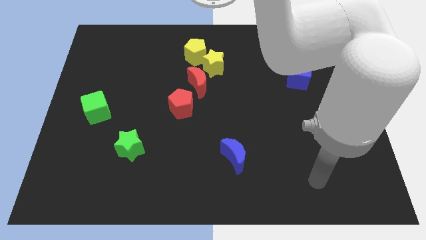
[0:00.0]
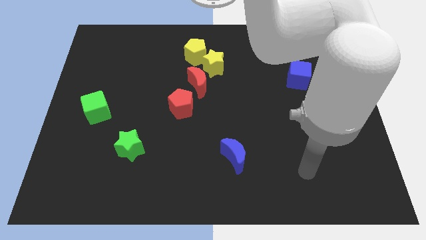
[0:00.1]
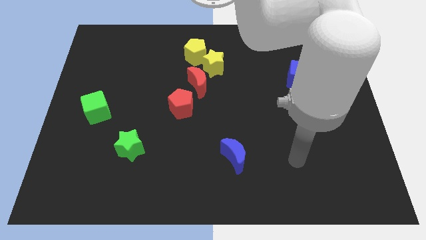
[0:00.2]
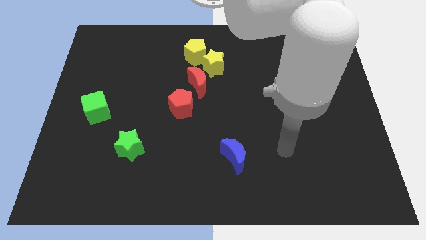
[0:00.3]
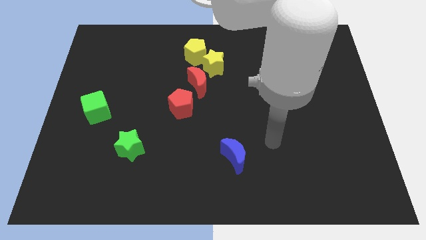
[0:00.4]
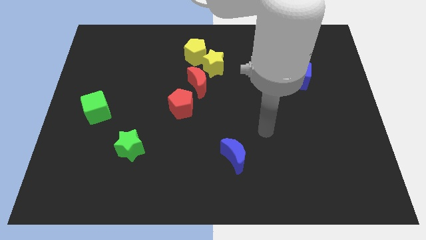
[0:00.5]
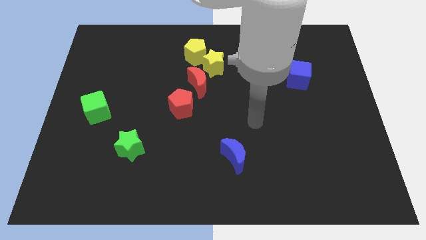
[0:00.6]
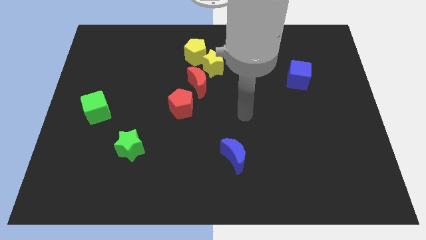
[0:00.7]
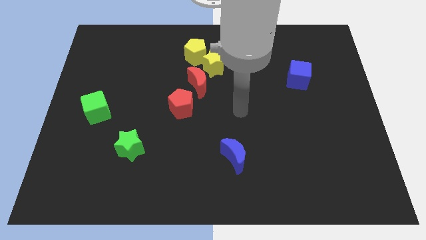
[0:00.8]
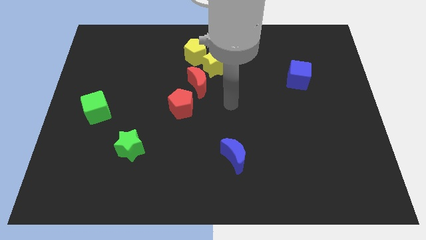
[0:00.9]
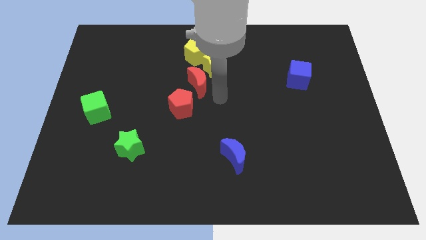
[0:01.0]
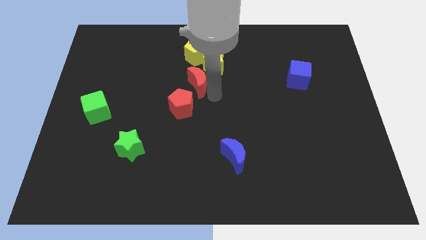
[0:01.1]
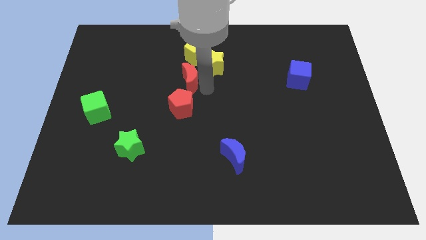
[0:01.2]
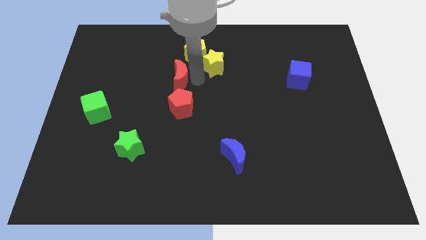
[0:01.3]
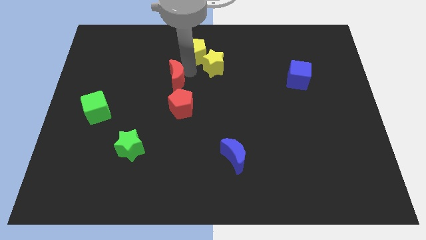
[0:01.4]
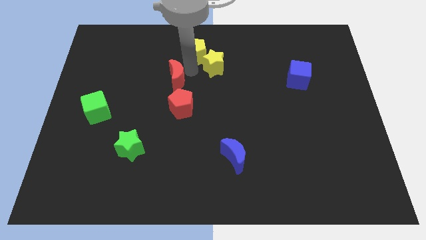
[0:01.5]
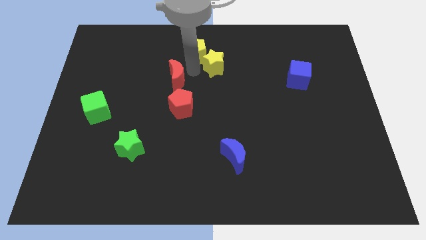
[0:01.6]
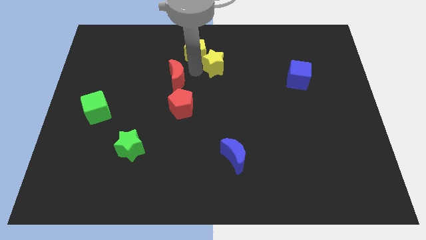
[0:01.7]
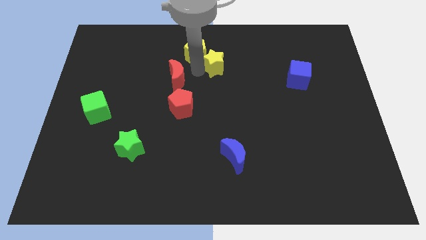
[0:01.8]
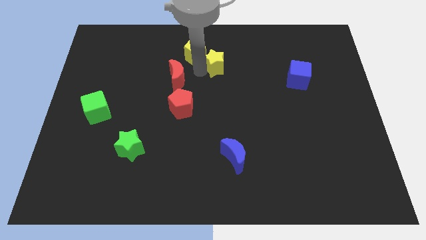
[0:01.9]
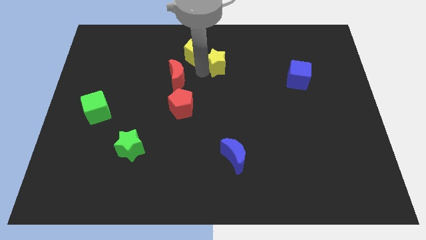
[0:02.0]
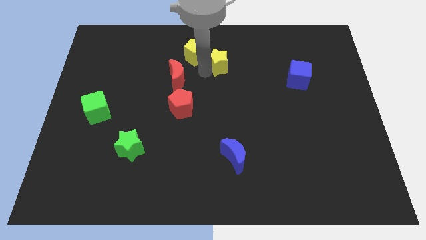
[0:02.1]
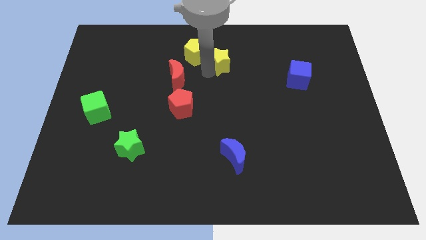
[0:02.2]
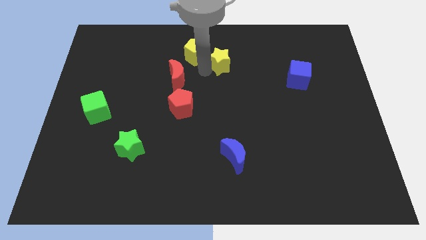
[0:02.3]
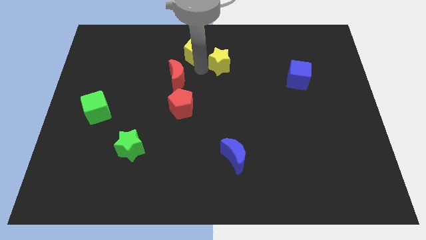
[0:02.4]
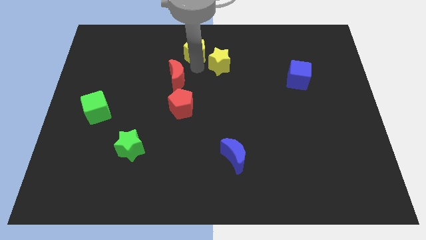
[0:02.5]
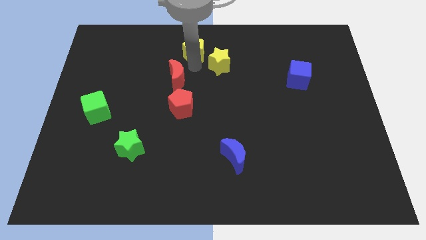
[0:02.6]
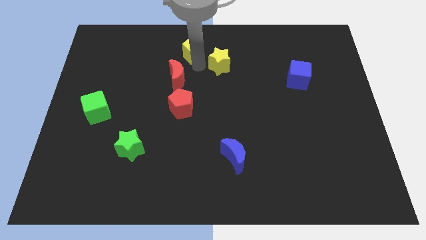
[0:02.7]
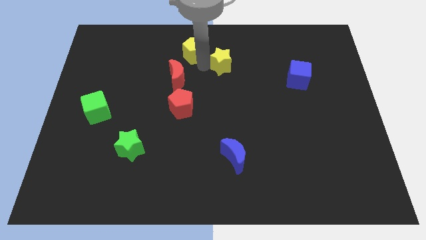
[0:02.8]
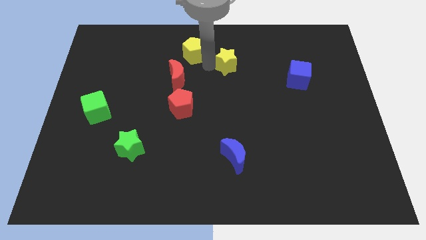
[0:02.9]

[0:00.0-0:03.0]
separate the yellow star from the yellow pentagon and red moon

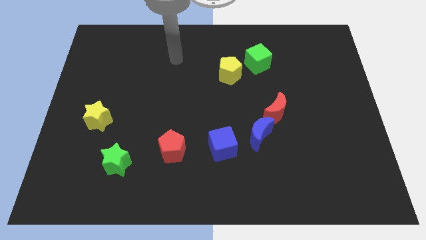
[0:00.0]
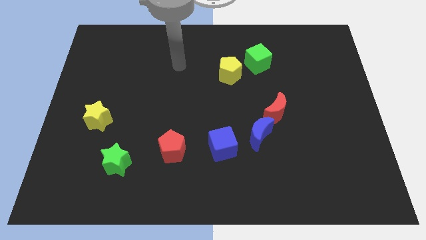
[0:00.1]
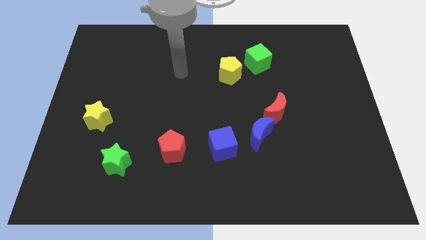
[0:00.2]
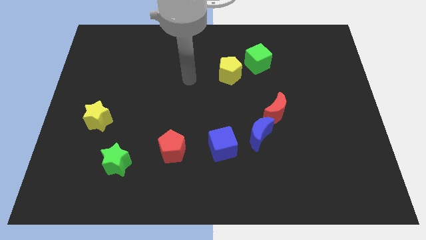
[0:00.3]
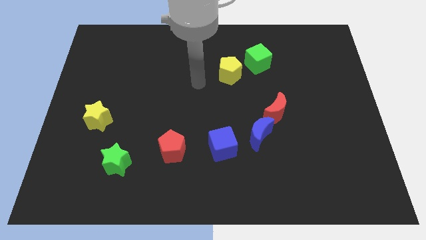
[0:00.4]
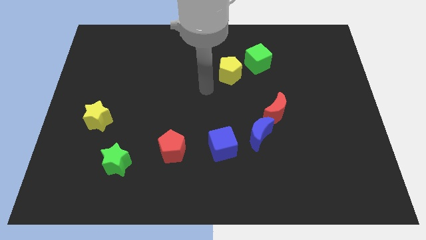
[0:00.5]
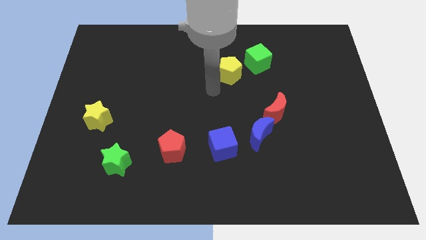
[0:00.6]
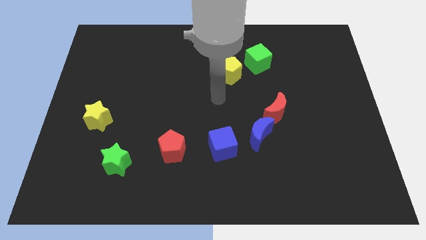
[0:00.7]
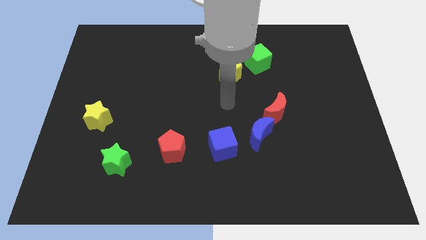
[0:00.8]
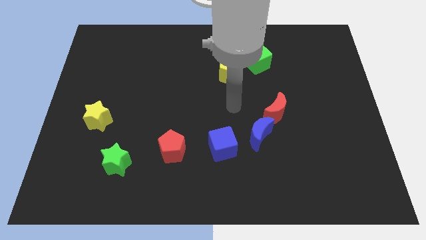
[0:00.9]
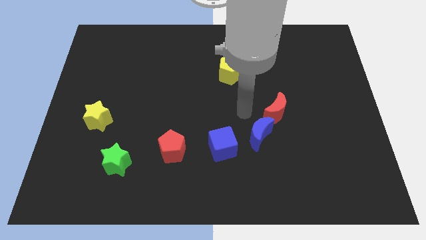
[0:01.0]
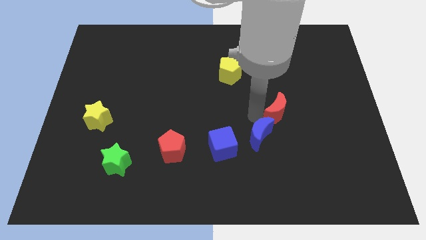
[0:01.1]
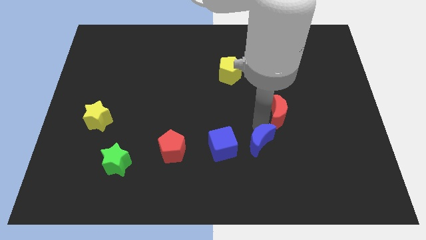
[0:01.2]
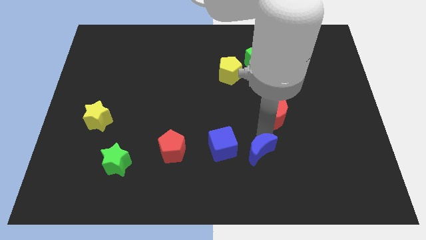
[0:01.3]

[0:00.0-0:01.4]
pull the red moon apart from the blue moon

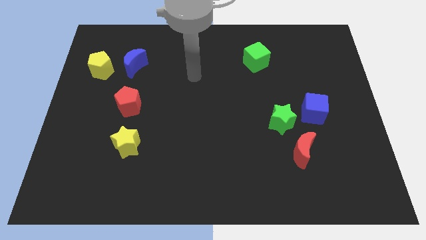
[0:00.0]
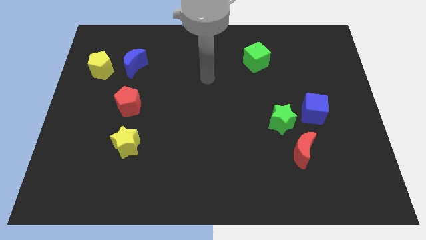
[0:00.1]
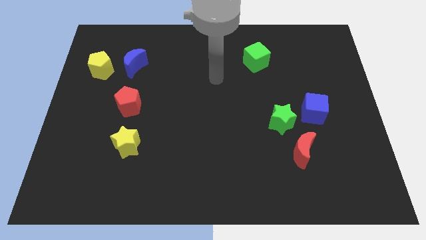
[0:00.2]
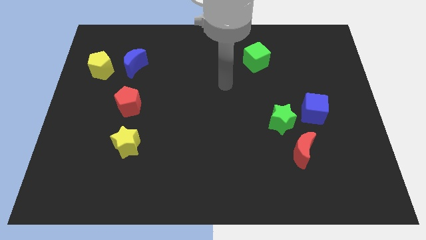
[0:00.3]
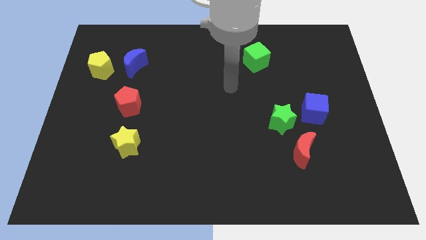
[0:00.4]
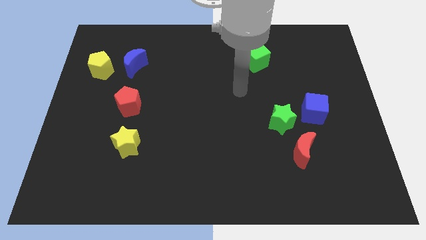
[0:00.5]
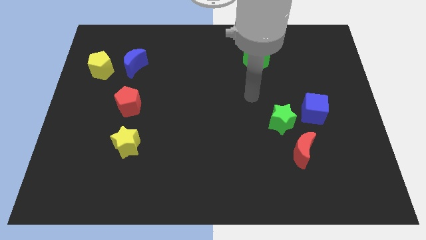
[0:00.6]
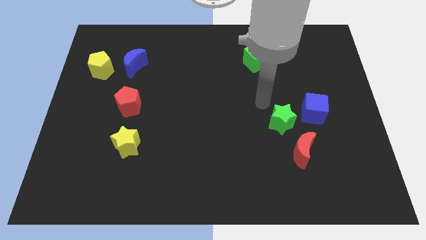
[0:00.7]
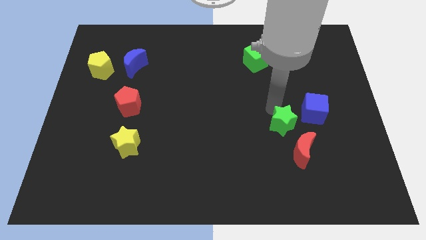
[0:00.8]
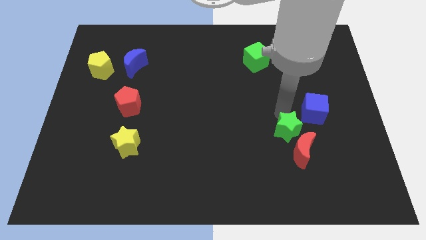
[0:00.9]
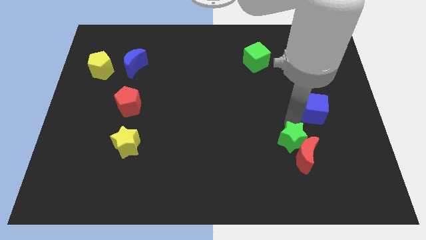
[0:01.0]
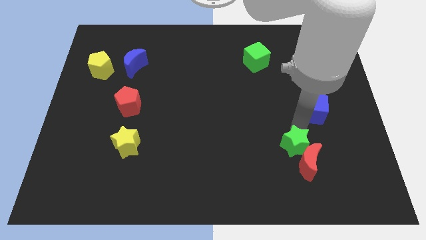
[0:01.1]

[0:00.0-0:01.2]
separate the blue cube from the green star

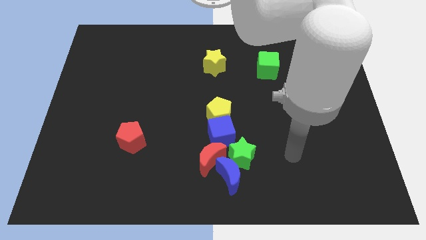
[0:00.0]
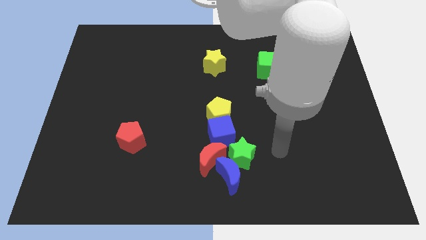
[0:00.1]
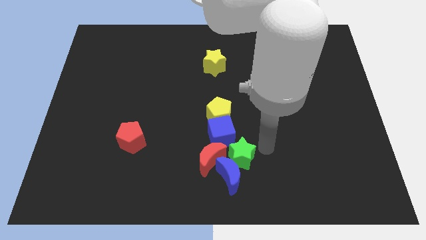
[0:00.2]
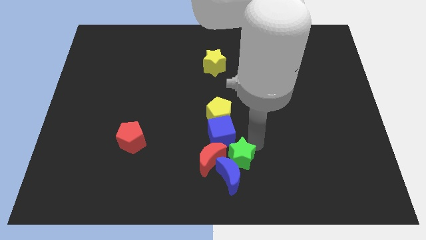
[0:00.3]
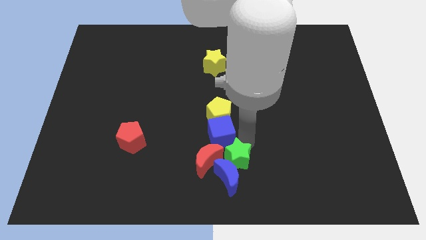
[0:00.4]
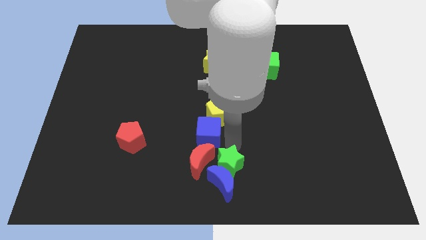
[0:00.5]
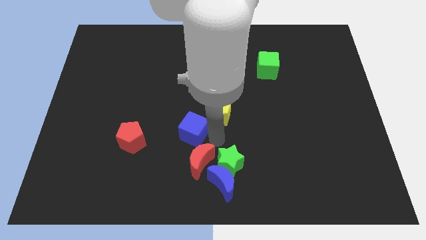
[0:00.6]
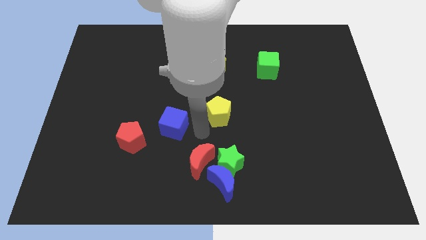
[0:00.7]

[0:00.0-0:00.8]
pull the yellow pentagon apart from the blue cube

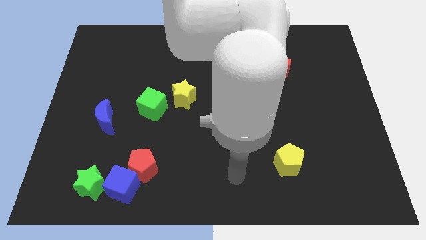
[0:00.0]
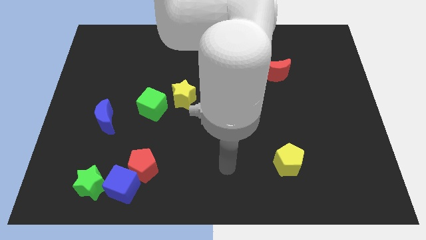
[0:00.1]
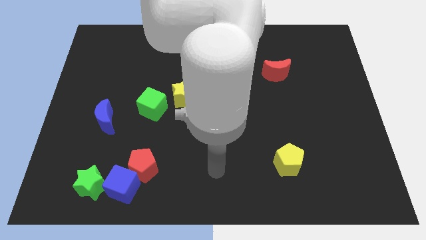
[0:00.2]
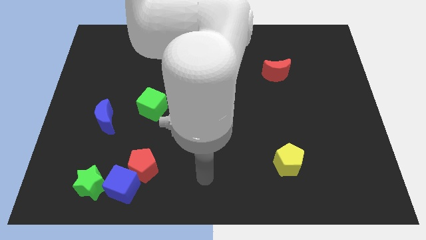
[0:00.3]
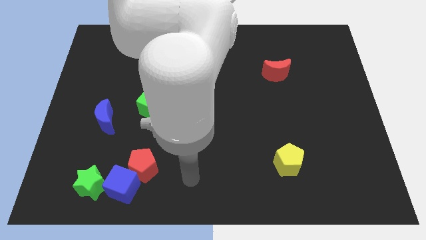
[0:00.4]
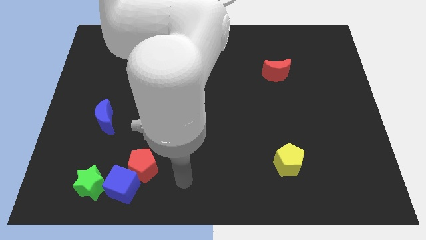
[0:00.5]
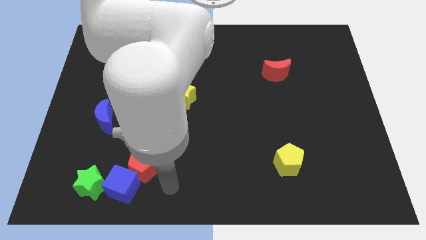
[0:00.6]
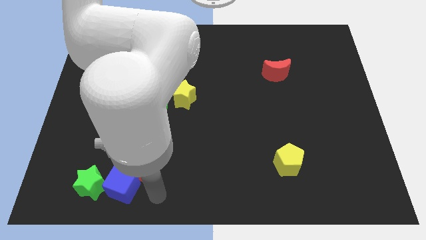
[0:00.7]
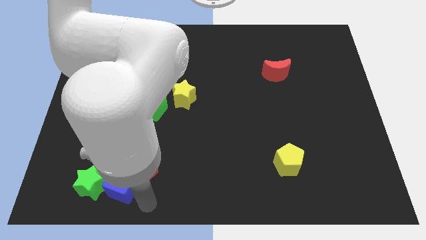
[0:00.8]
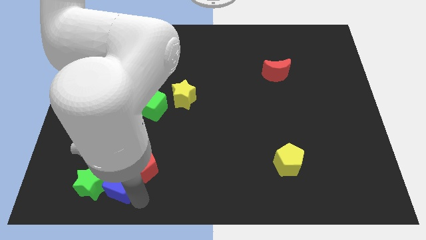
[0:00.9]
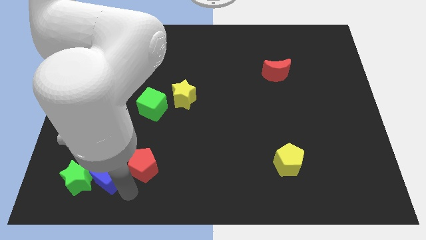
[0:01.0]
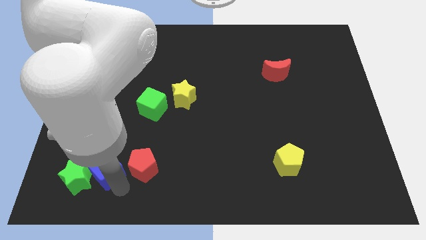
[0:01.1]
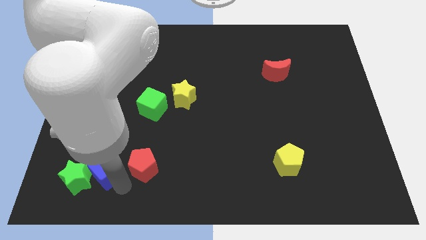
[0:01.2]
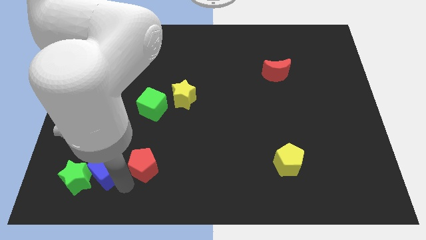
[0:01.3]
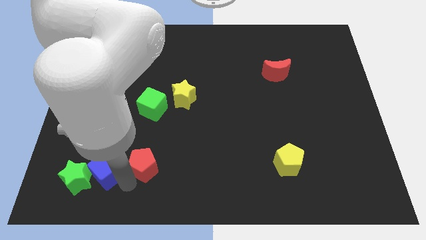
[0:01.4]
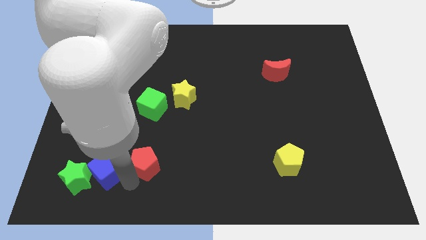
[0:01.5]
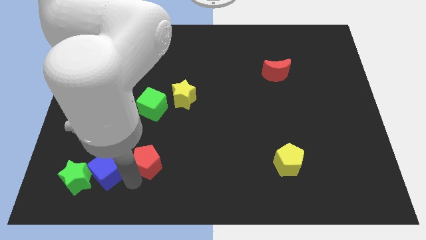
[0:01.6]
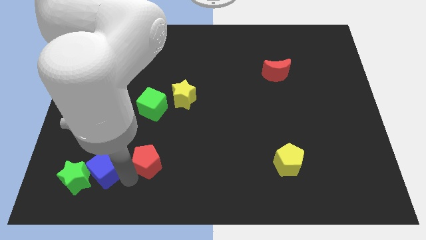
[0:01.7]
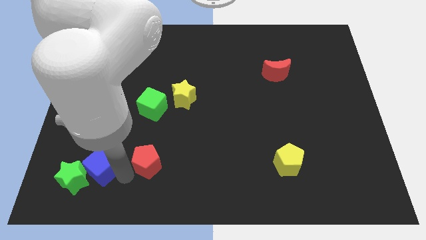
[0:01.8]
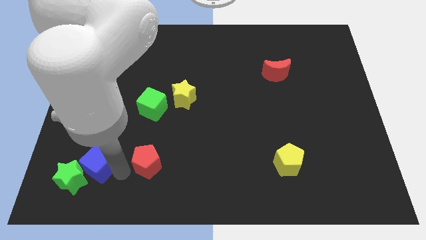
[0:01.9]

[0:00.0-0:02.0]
separate the red pentagon from the blue cube

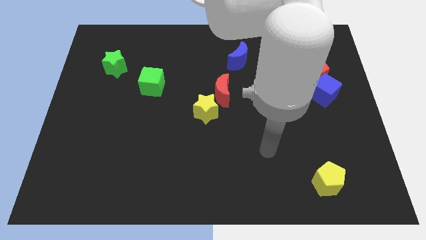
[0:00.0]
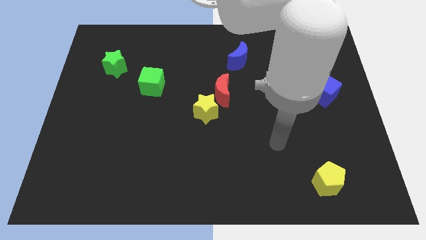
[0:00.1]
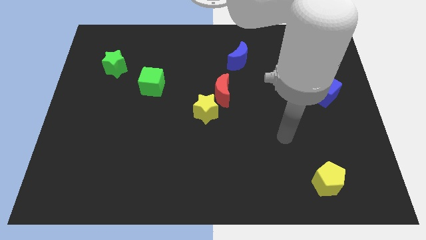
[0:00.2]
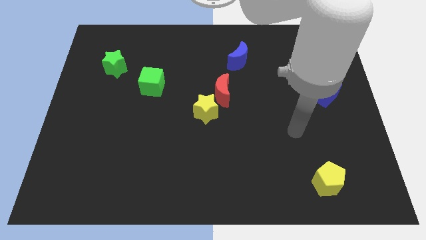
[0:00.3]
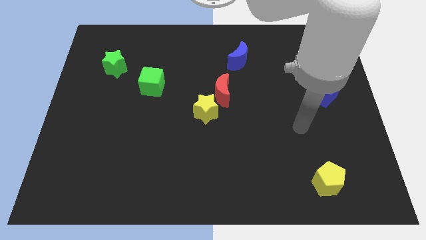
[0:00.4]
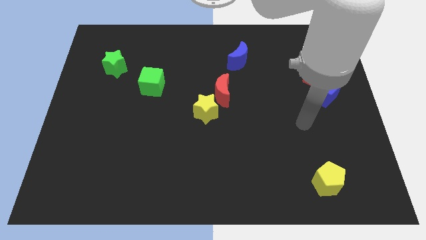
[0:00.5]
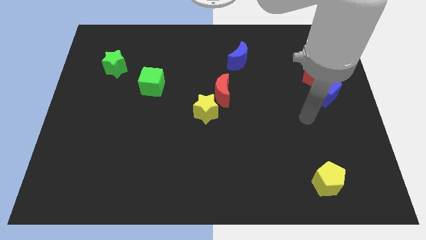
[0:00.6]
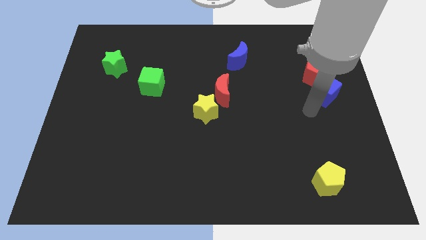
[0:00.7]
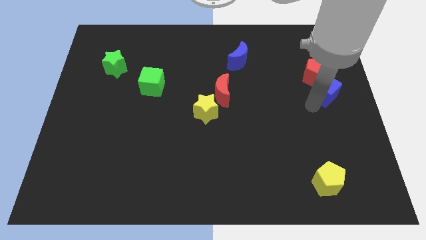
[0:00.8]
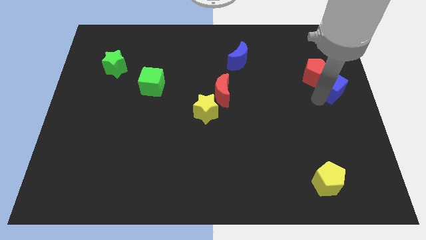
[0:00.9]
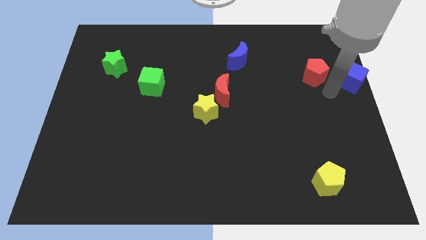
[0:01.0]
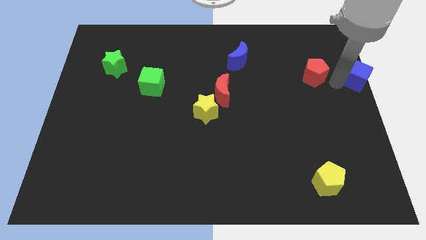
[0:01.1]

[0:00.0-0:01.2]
pull the red pentagon apart from the blue cube
